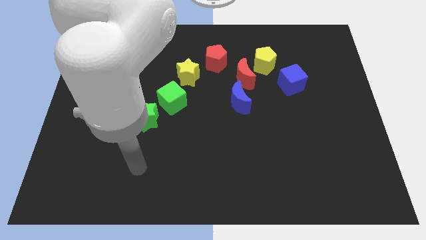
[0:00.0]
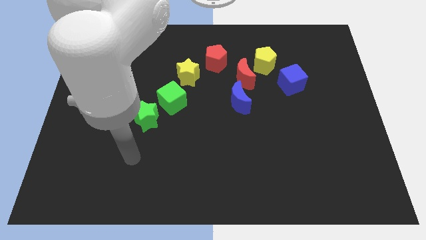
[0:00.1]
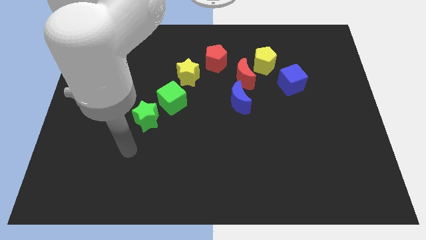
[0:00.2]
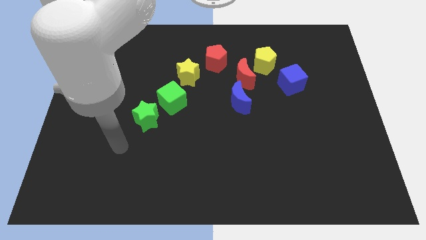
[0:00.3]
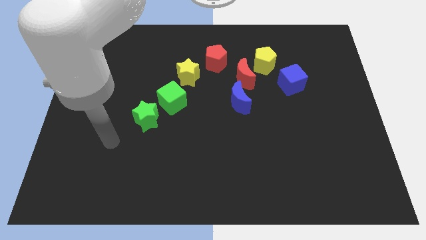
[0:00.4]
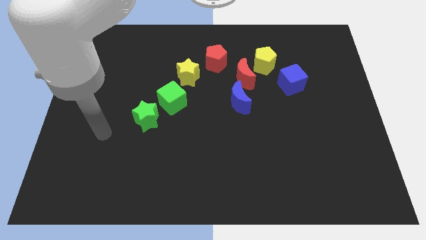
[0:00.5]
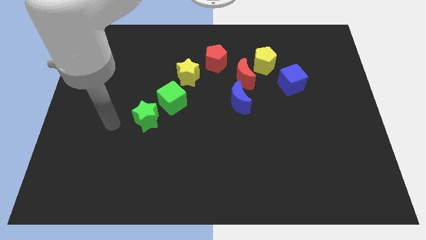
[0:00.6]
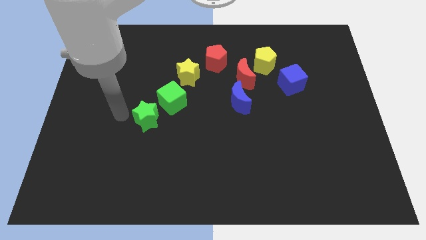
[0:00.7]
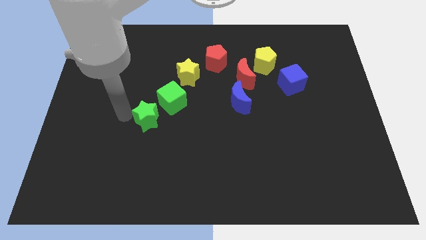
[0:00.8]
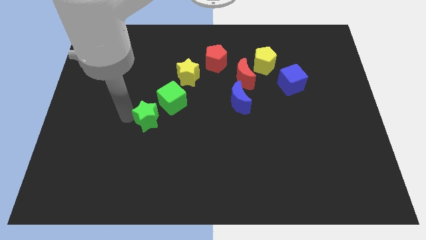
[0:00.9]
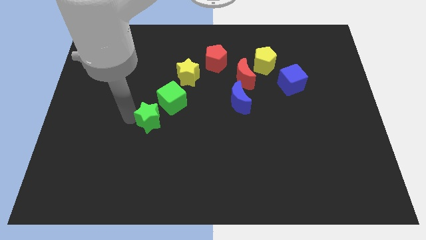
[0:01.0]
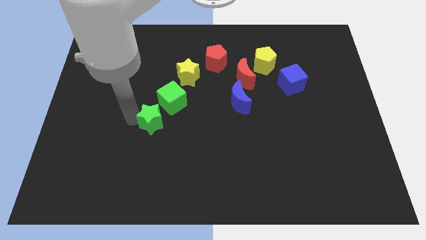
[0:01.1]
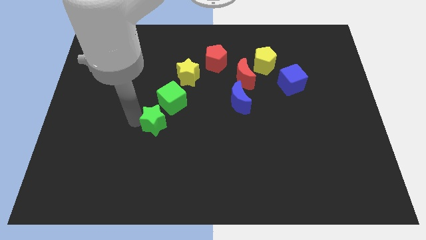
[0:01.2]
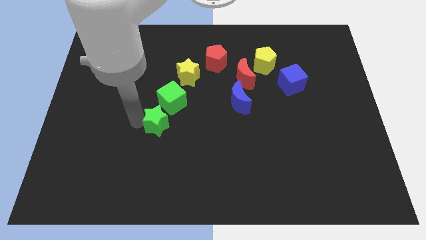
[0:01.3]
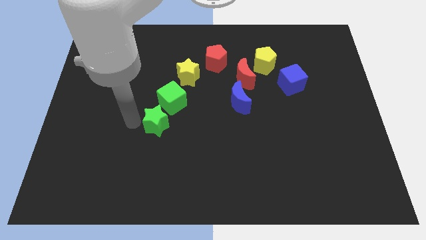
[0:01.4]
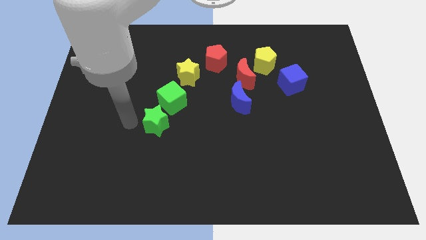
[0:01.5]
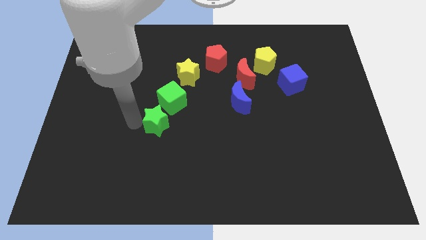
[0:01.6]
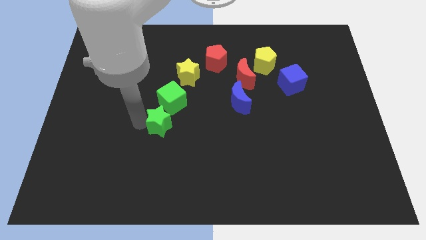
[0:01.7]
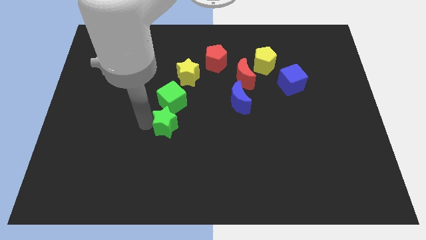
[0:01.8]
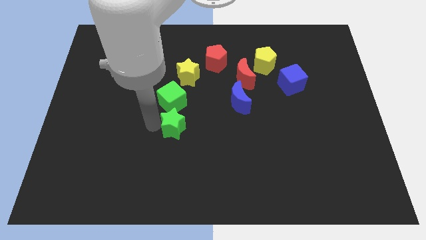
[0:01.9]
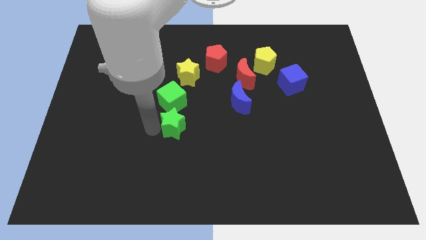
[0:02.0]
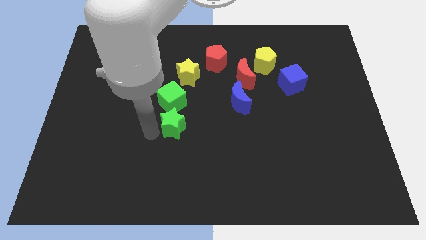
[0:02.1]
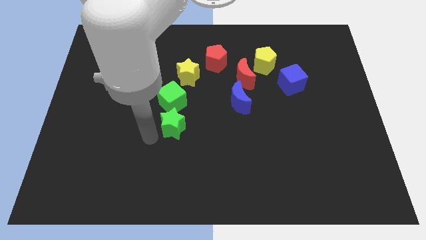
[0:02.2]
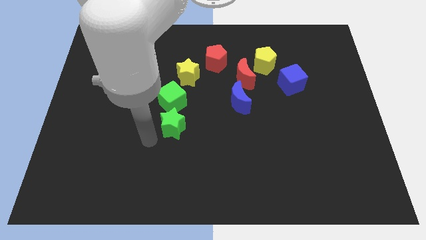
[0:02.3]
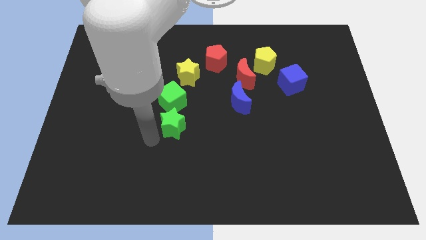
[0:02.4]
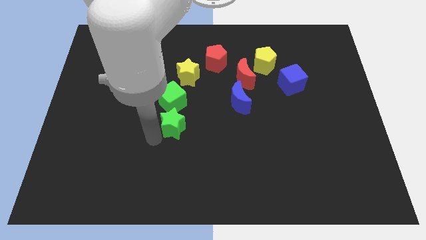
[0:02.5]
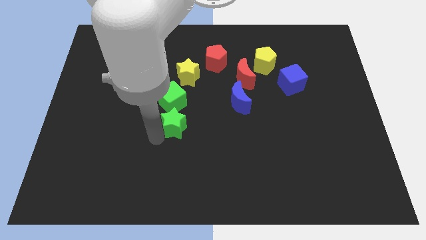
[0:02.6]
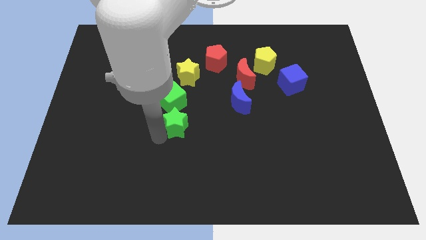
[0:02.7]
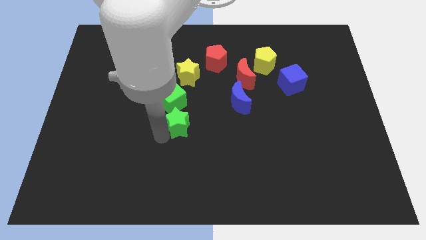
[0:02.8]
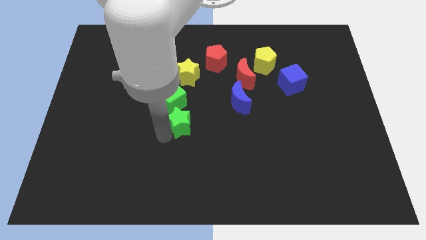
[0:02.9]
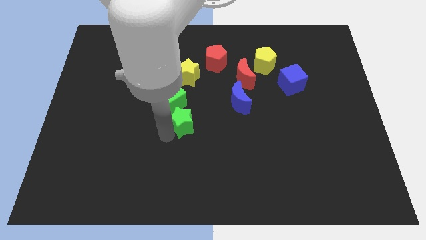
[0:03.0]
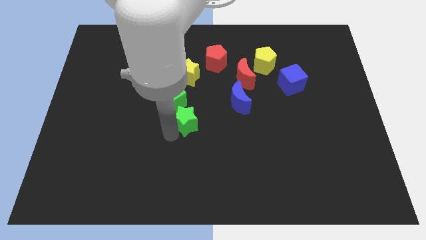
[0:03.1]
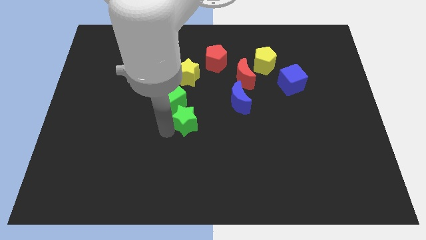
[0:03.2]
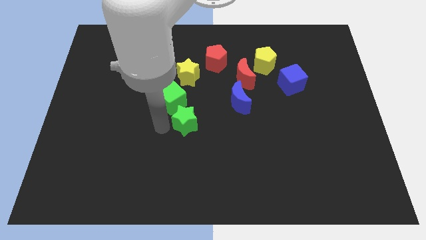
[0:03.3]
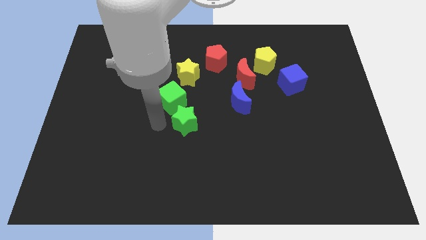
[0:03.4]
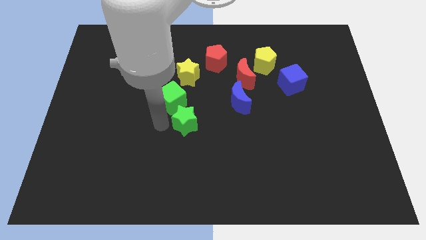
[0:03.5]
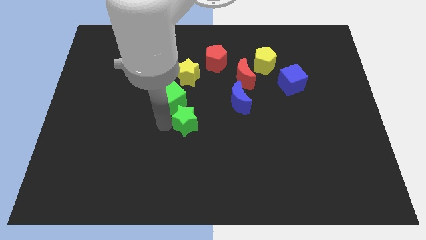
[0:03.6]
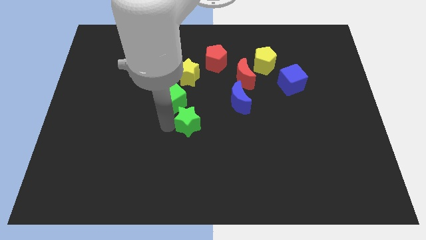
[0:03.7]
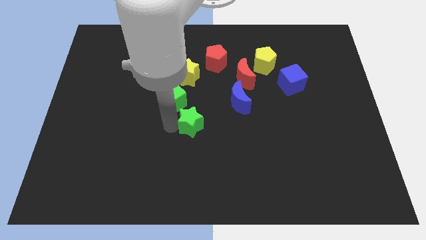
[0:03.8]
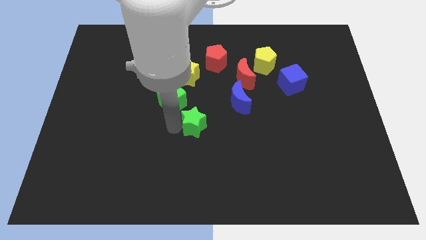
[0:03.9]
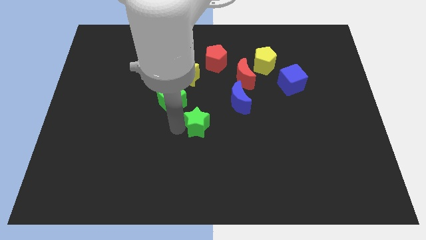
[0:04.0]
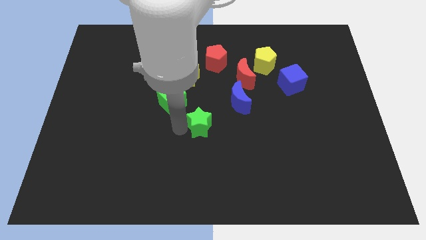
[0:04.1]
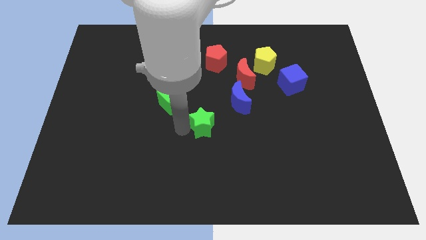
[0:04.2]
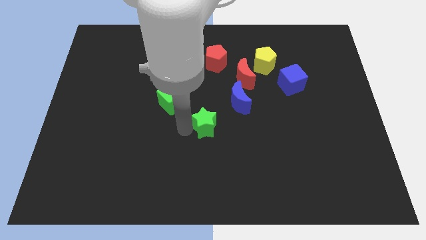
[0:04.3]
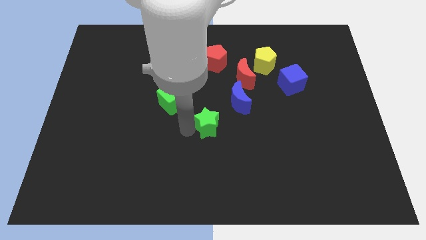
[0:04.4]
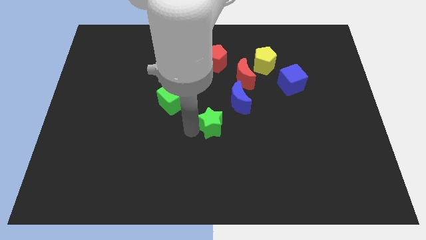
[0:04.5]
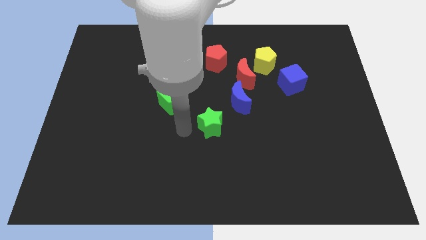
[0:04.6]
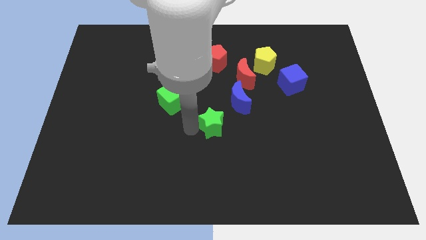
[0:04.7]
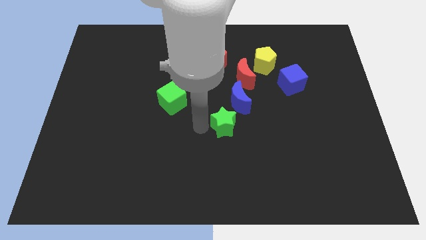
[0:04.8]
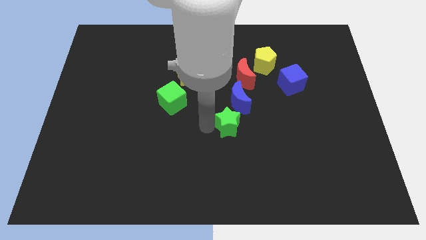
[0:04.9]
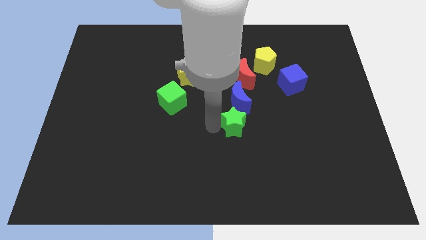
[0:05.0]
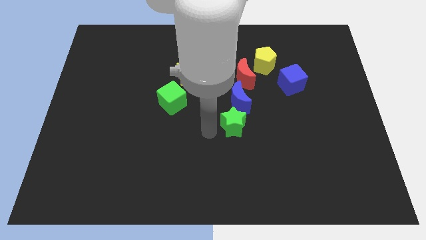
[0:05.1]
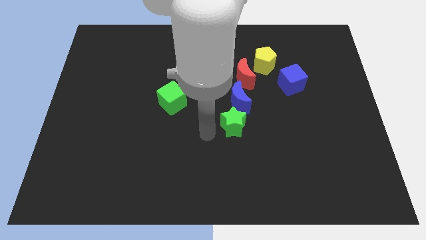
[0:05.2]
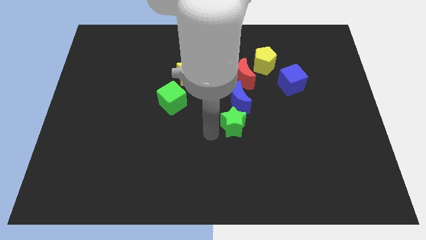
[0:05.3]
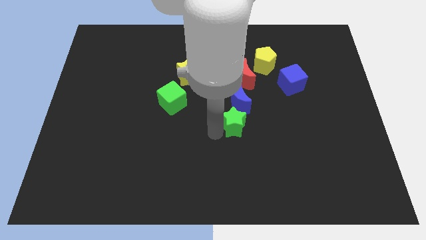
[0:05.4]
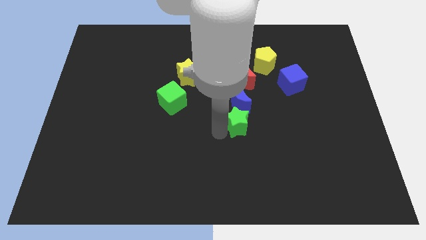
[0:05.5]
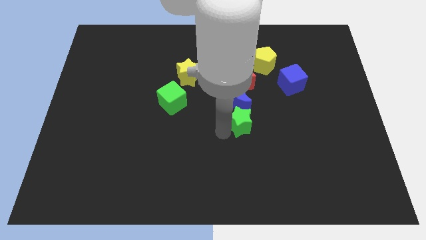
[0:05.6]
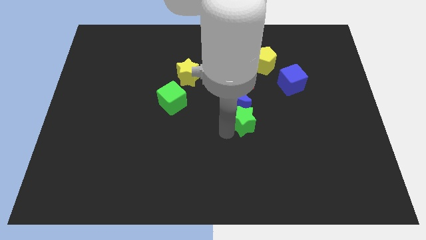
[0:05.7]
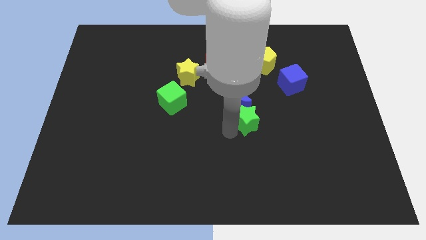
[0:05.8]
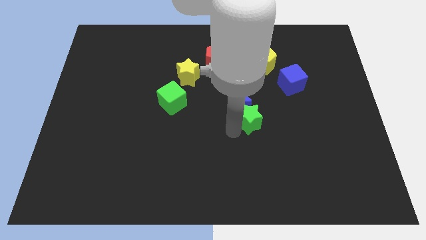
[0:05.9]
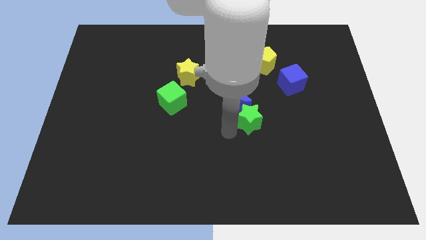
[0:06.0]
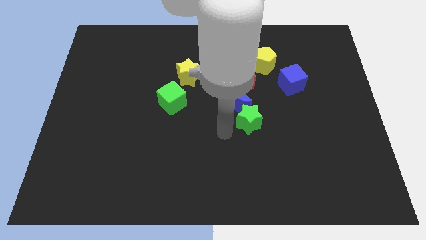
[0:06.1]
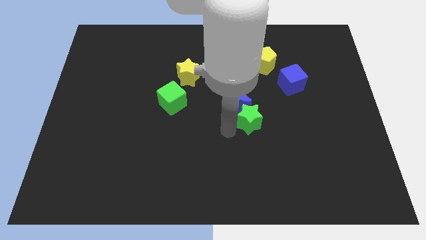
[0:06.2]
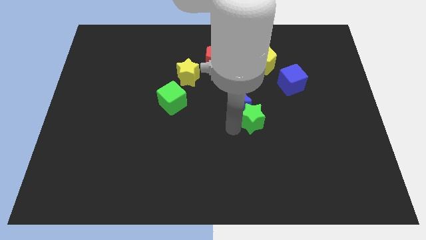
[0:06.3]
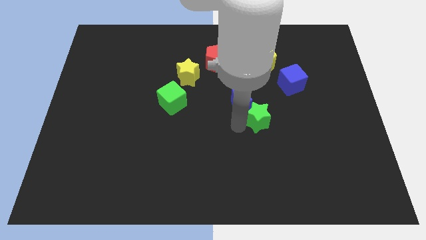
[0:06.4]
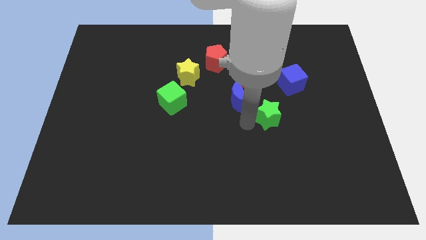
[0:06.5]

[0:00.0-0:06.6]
push the green star to the right side of the blue moon

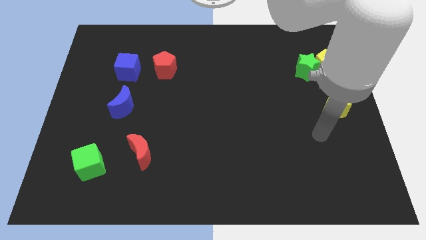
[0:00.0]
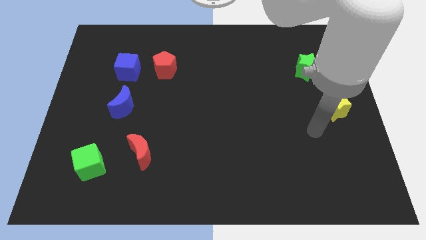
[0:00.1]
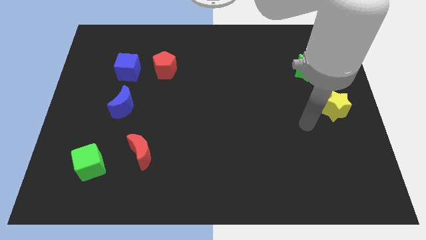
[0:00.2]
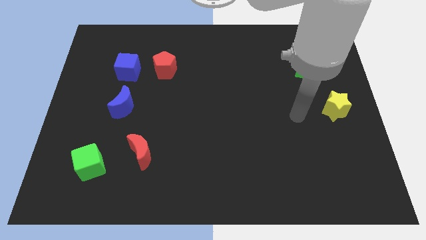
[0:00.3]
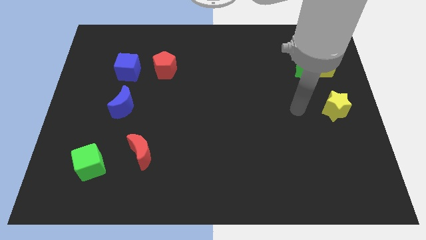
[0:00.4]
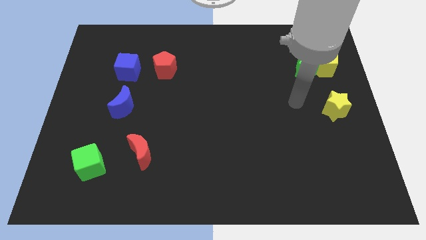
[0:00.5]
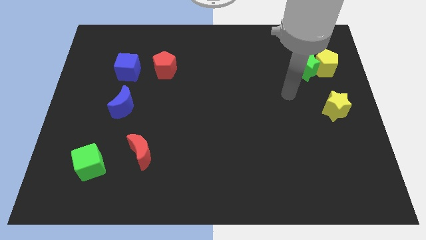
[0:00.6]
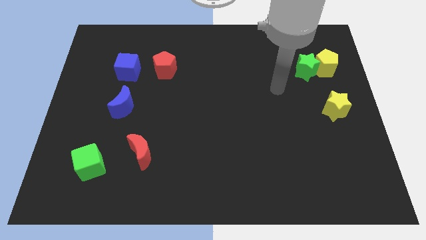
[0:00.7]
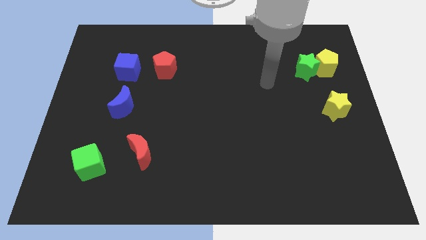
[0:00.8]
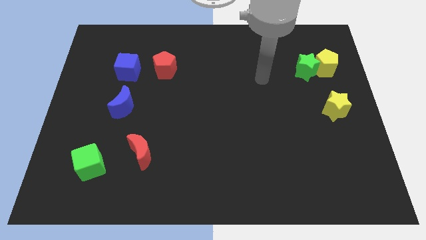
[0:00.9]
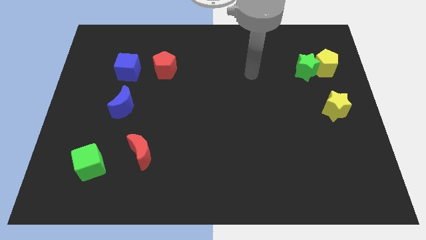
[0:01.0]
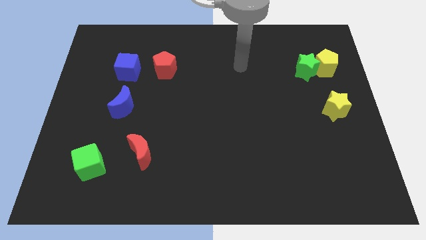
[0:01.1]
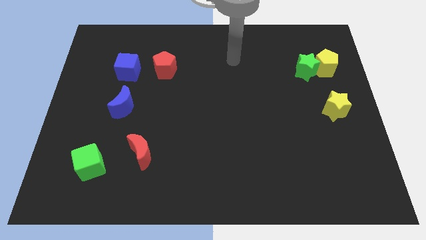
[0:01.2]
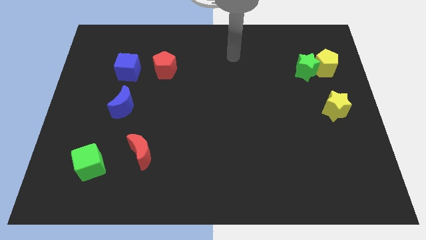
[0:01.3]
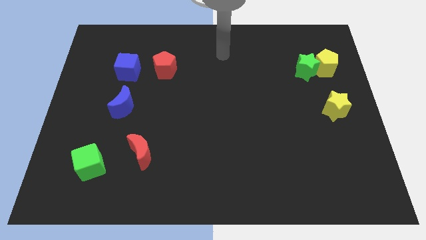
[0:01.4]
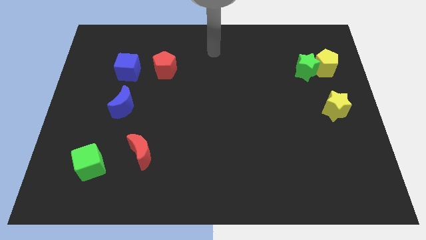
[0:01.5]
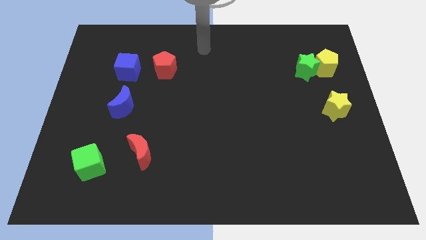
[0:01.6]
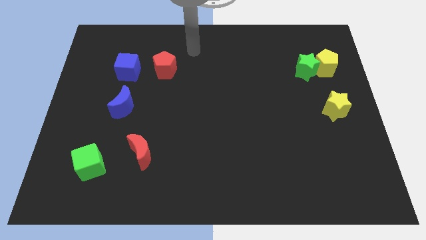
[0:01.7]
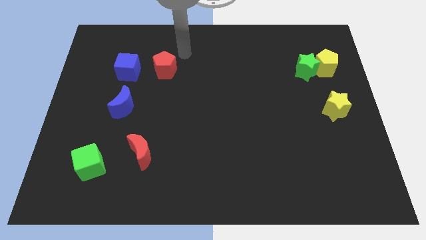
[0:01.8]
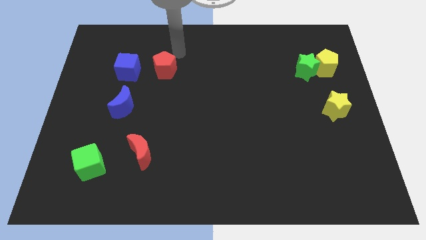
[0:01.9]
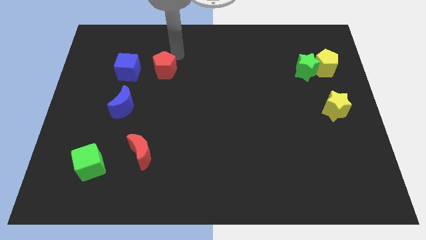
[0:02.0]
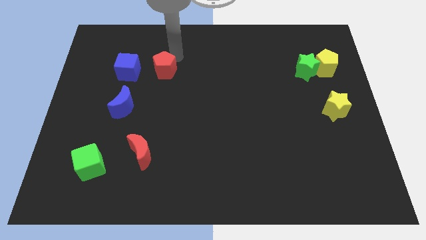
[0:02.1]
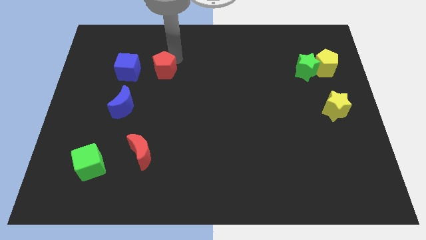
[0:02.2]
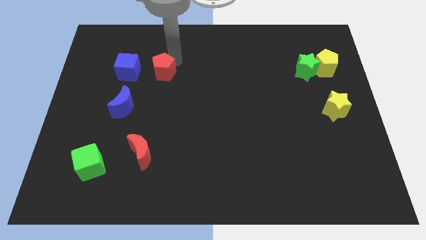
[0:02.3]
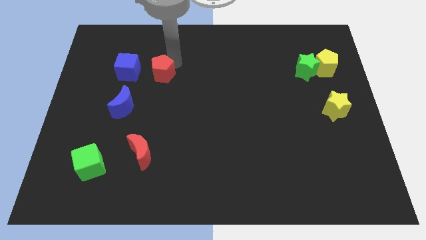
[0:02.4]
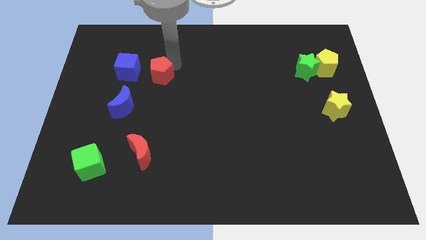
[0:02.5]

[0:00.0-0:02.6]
slide the red pentagon diagonally up and to the right of the blue moon
